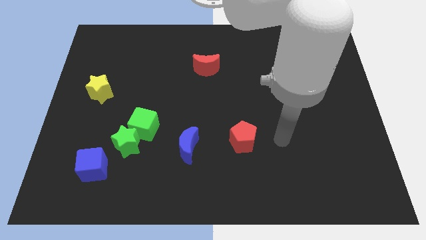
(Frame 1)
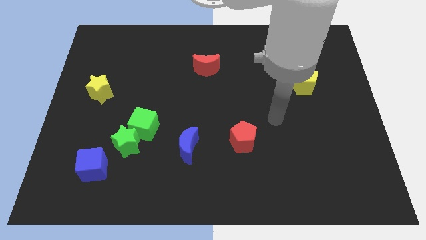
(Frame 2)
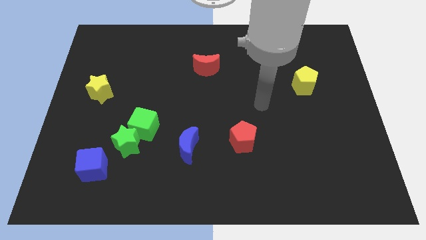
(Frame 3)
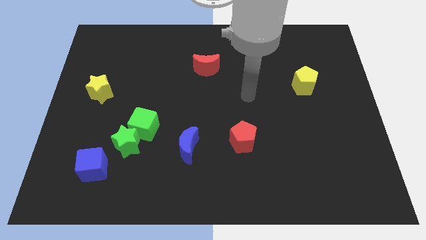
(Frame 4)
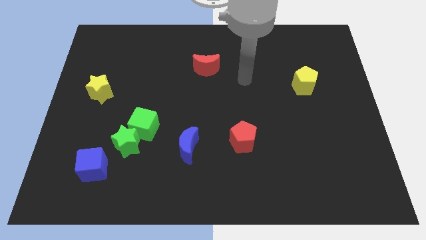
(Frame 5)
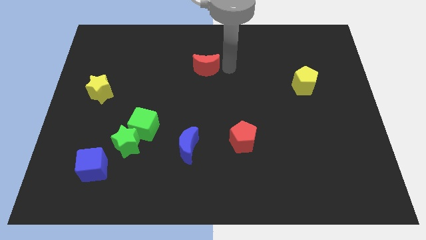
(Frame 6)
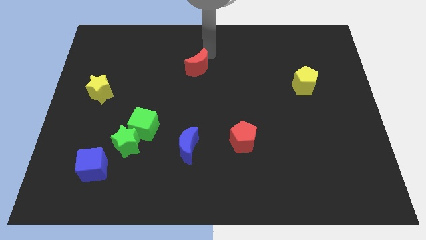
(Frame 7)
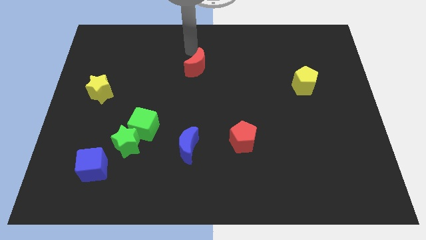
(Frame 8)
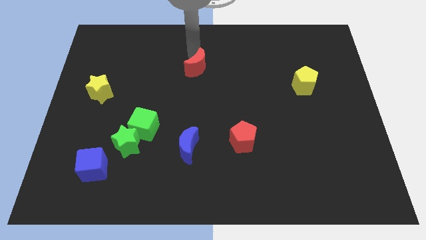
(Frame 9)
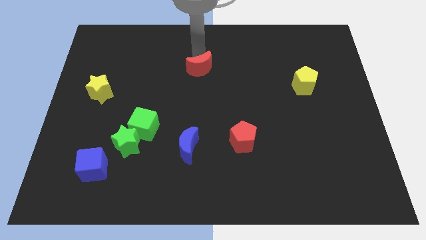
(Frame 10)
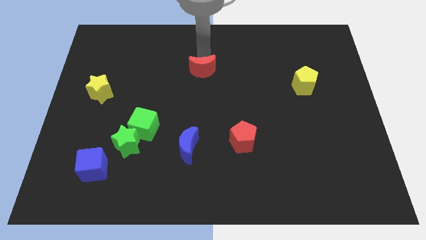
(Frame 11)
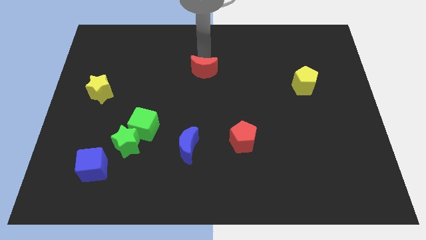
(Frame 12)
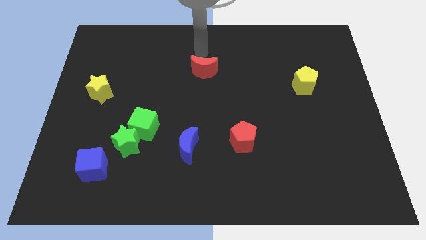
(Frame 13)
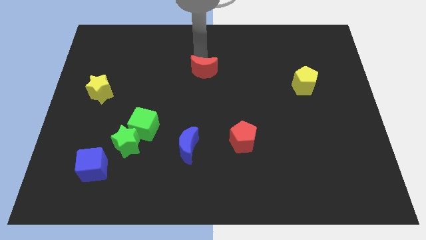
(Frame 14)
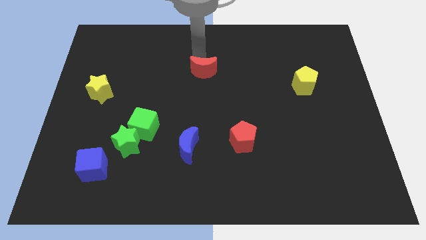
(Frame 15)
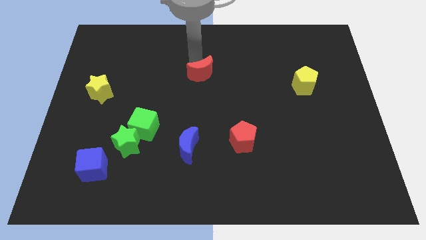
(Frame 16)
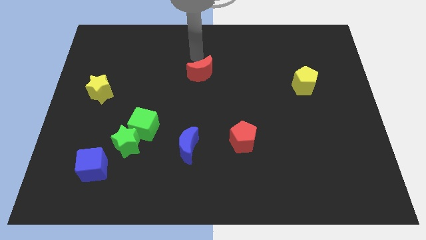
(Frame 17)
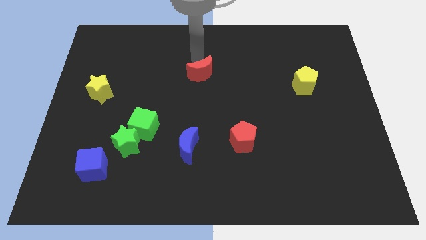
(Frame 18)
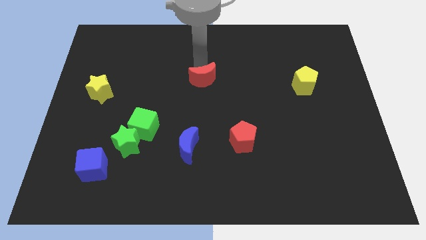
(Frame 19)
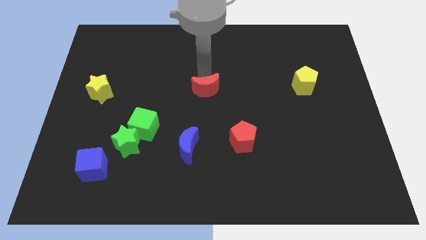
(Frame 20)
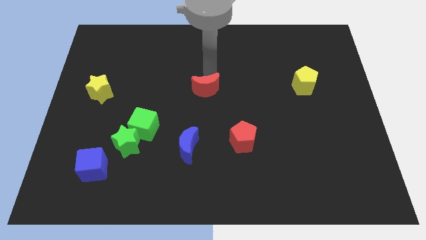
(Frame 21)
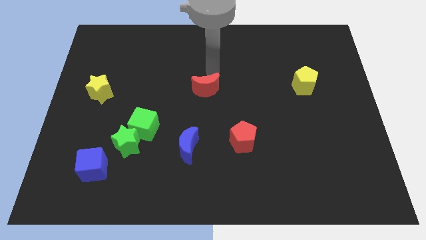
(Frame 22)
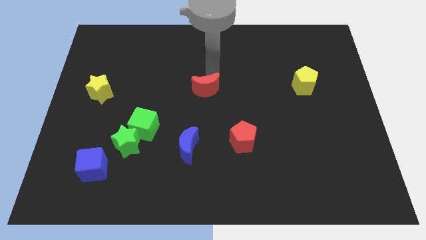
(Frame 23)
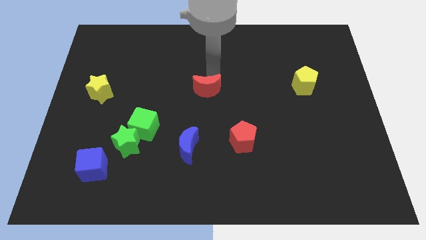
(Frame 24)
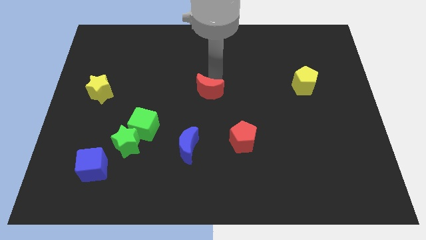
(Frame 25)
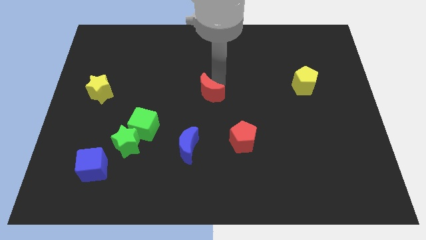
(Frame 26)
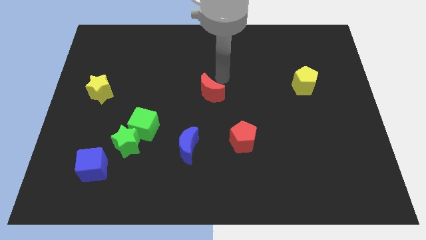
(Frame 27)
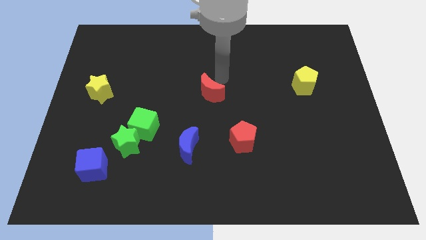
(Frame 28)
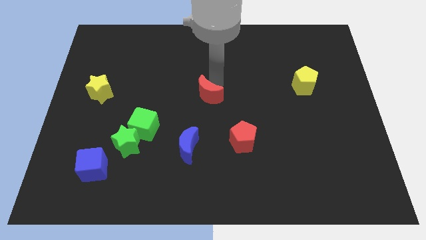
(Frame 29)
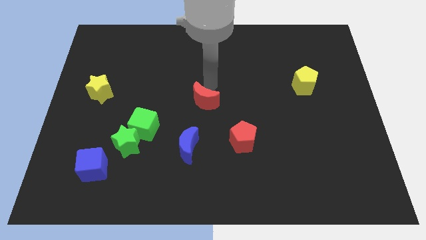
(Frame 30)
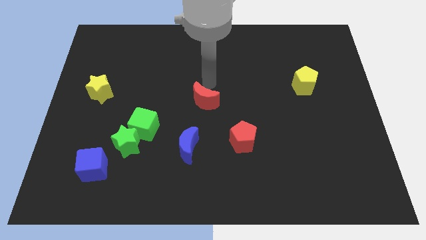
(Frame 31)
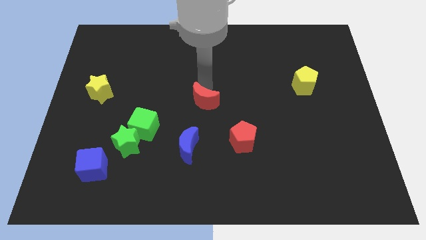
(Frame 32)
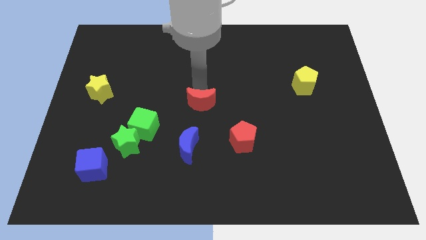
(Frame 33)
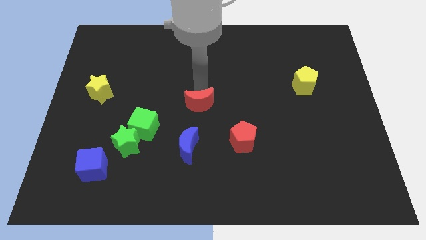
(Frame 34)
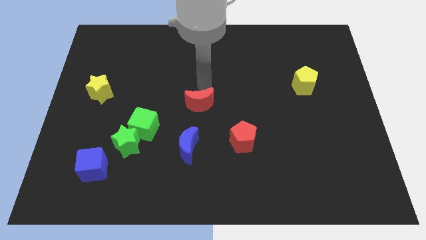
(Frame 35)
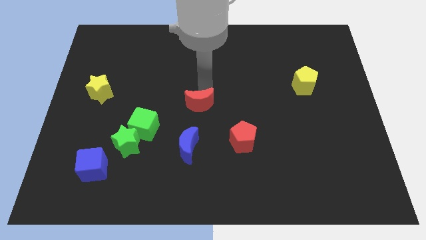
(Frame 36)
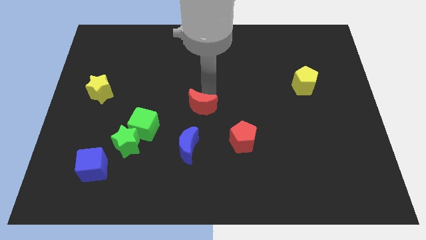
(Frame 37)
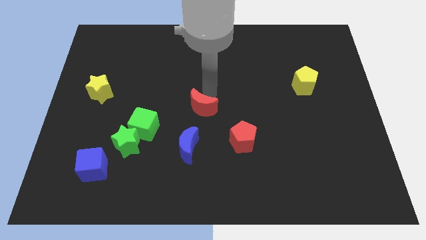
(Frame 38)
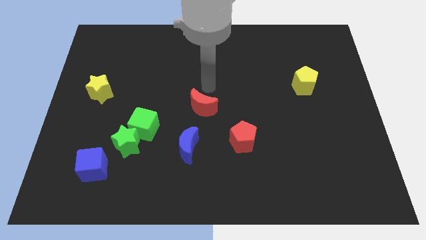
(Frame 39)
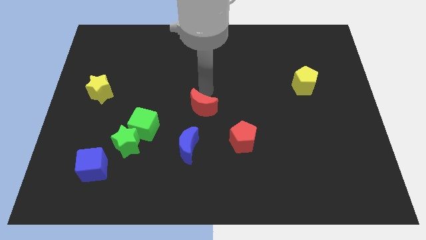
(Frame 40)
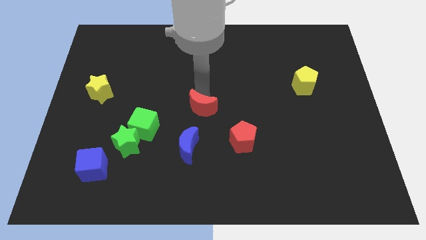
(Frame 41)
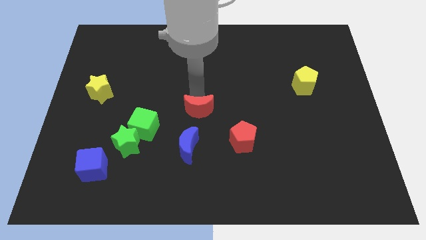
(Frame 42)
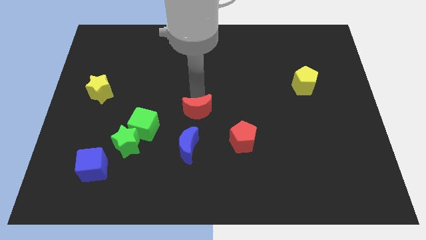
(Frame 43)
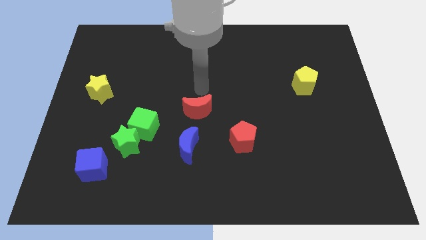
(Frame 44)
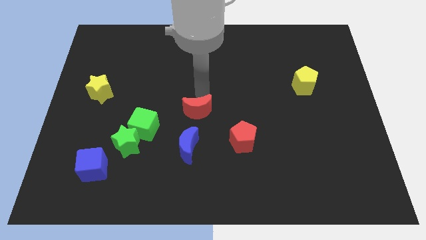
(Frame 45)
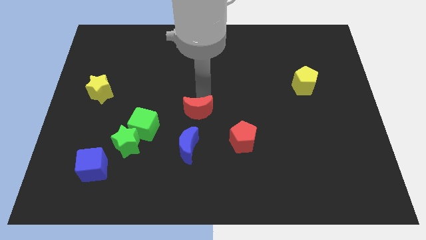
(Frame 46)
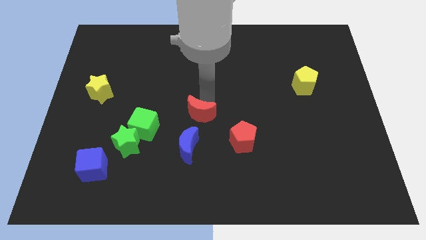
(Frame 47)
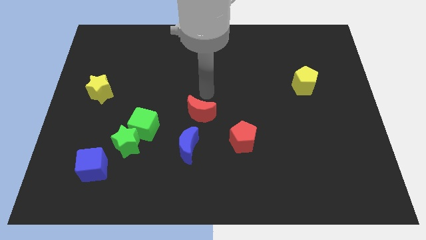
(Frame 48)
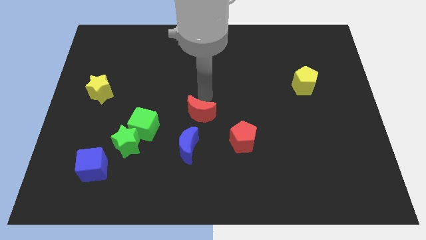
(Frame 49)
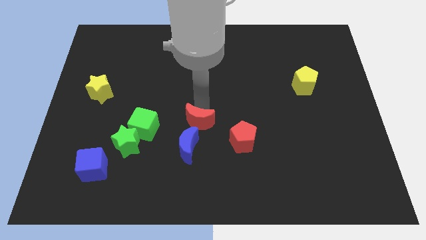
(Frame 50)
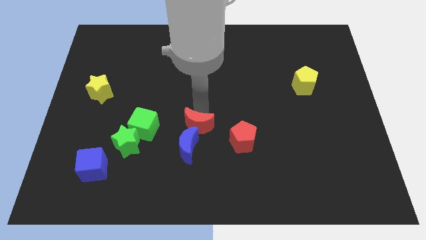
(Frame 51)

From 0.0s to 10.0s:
push the red moon next to the blue moon

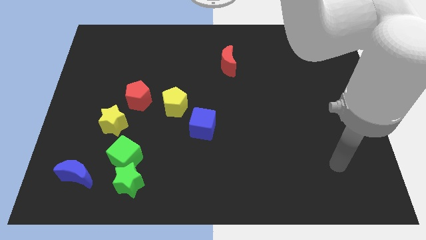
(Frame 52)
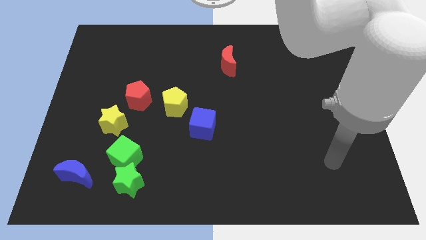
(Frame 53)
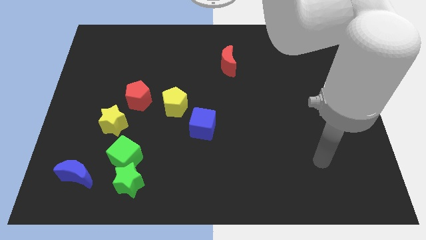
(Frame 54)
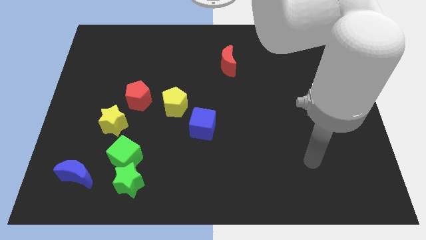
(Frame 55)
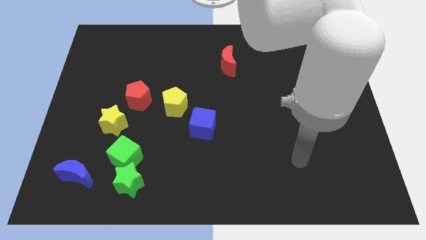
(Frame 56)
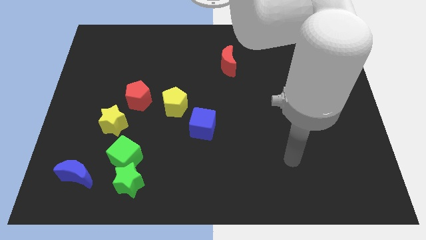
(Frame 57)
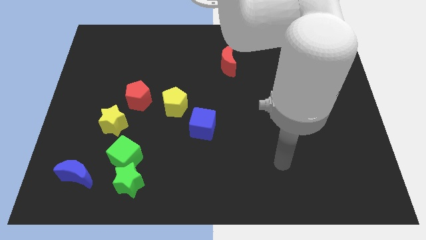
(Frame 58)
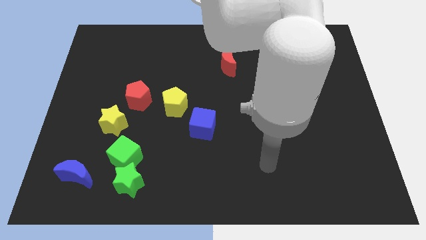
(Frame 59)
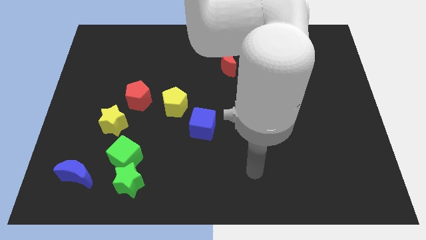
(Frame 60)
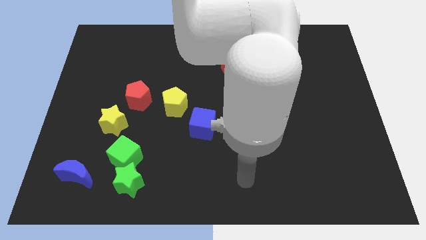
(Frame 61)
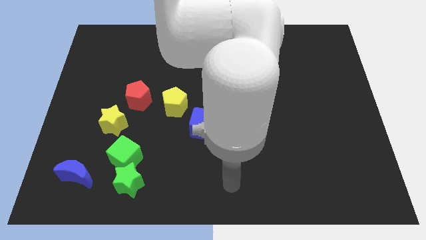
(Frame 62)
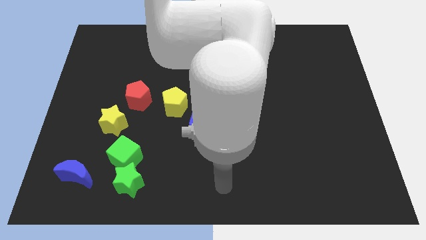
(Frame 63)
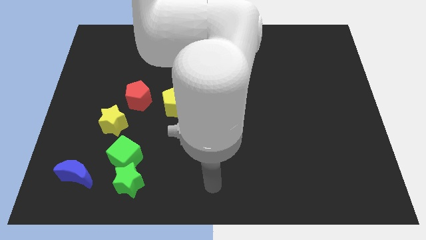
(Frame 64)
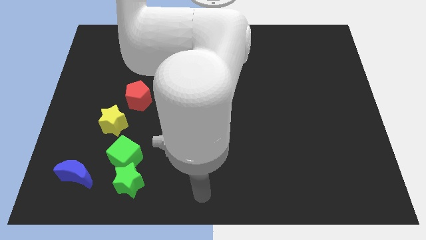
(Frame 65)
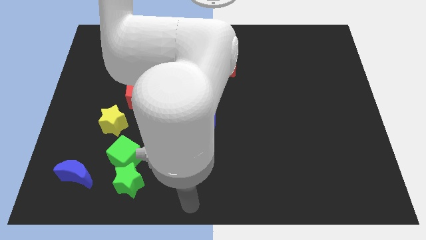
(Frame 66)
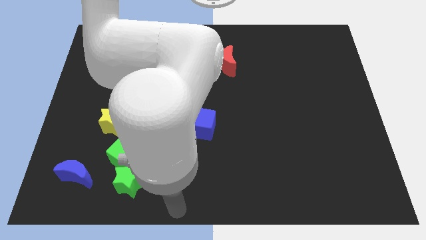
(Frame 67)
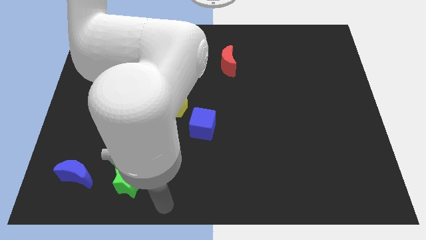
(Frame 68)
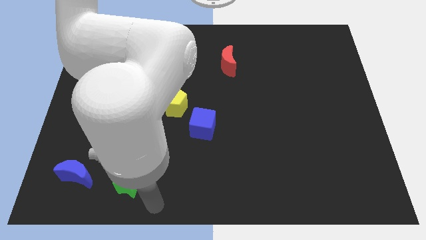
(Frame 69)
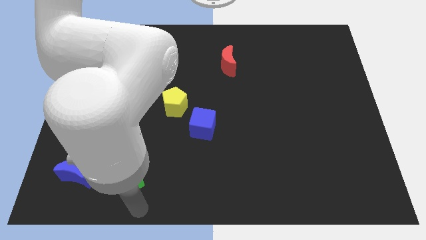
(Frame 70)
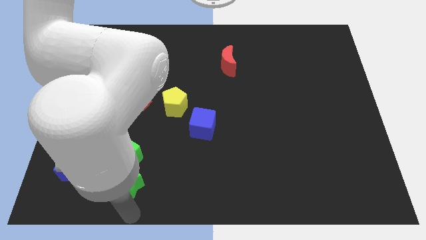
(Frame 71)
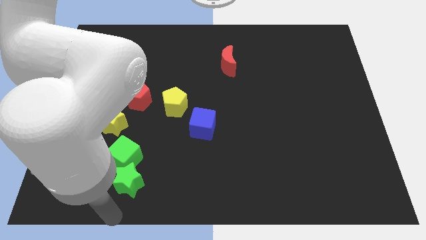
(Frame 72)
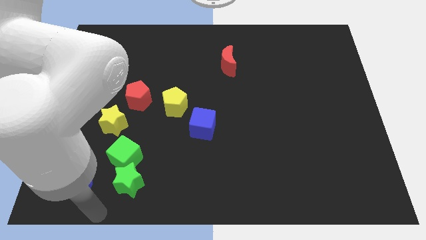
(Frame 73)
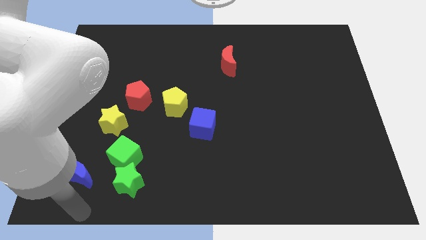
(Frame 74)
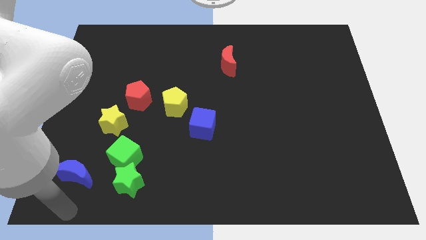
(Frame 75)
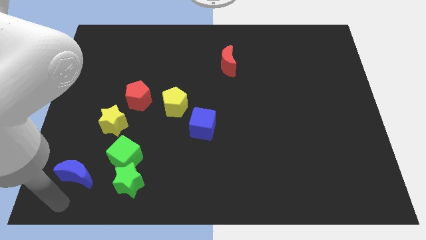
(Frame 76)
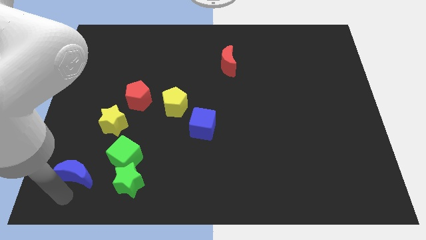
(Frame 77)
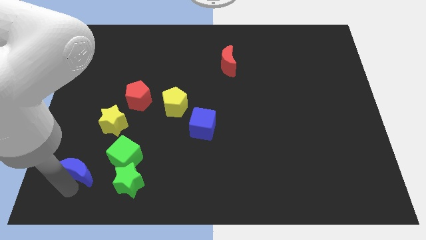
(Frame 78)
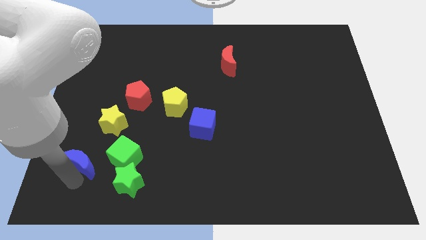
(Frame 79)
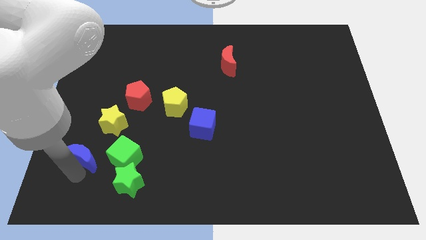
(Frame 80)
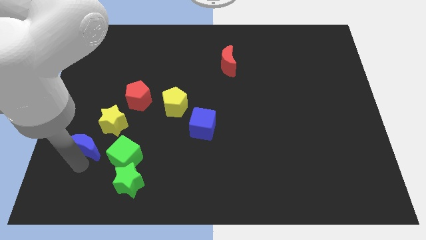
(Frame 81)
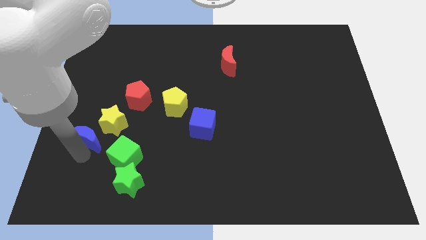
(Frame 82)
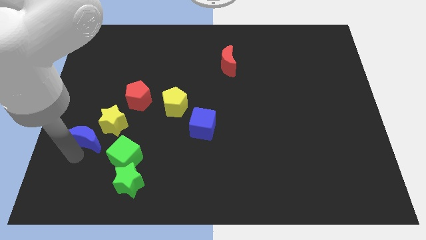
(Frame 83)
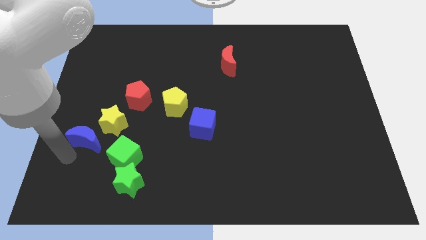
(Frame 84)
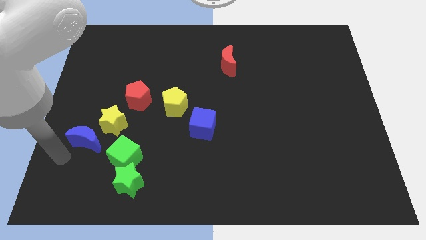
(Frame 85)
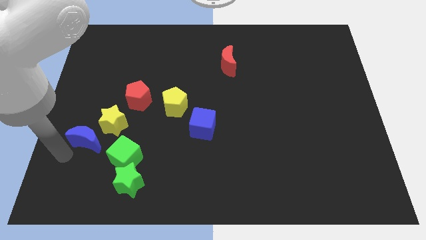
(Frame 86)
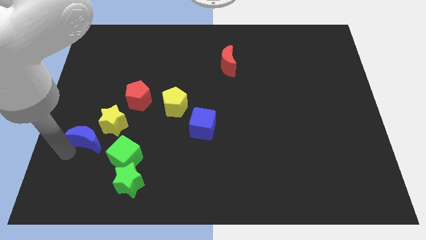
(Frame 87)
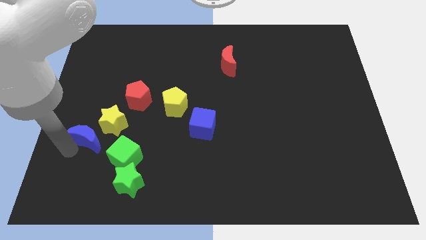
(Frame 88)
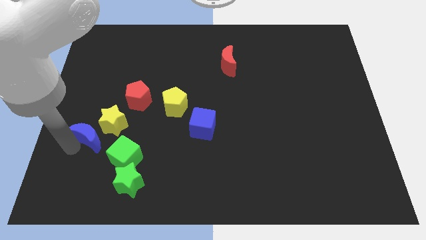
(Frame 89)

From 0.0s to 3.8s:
put the blue moon to the yellow star
